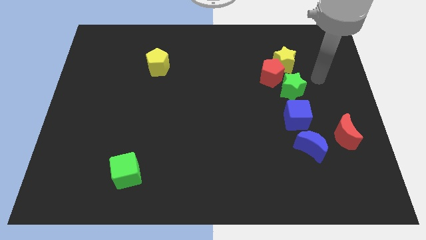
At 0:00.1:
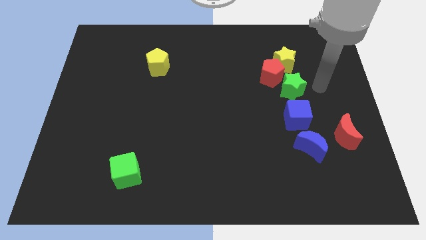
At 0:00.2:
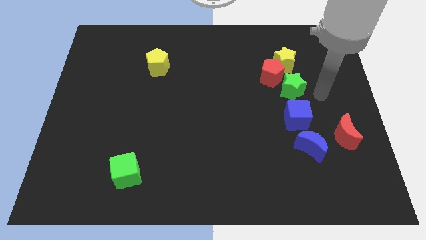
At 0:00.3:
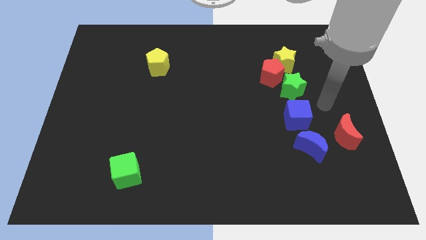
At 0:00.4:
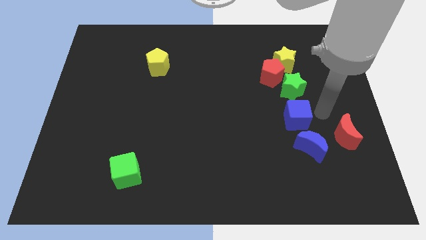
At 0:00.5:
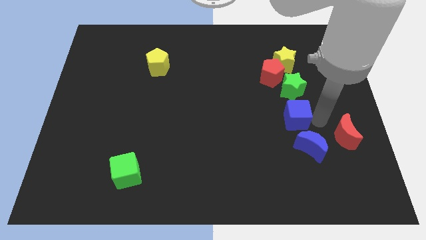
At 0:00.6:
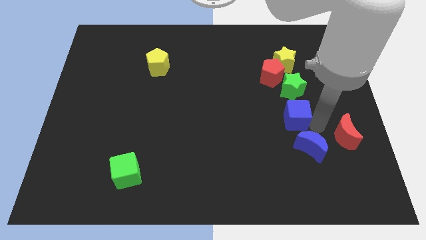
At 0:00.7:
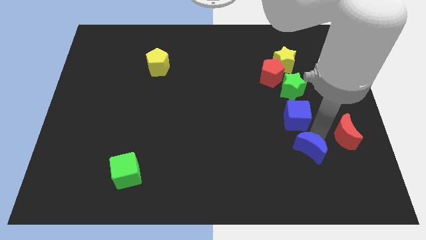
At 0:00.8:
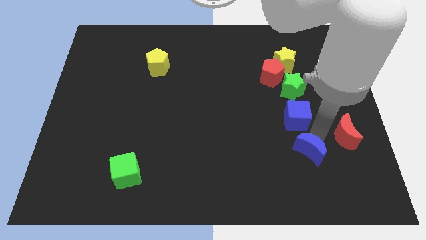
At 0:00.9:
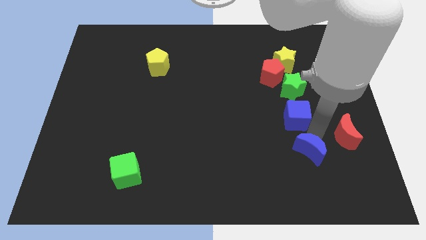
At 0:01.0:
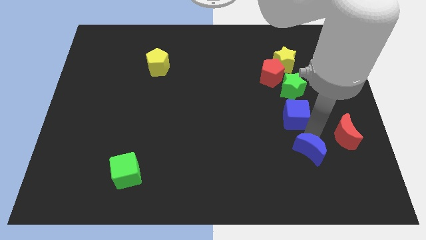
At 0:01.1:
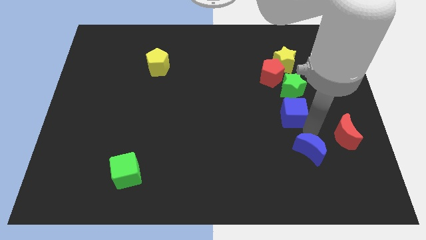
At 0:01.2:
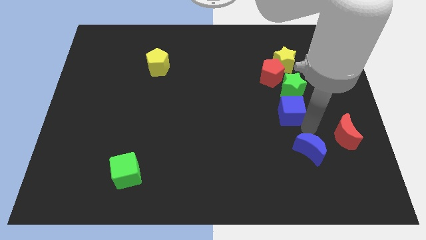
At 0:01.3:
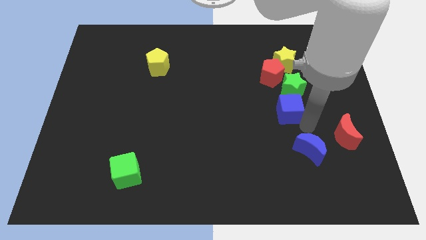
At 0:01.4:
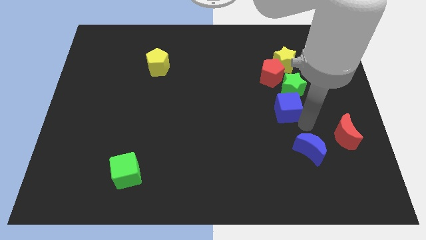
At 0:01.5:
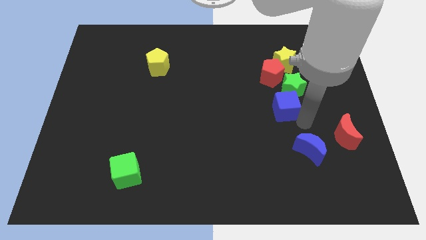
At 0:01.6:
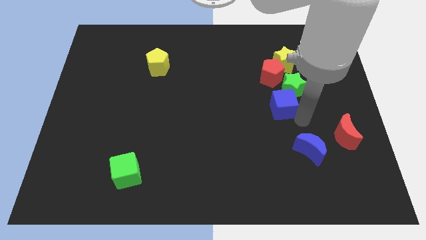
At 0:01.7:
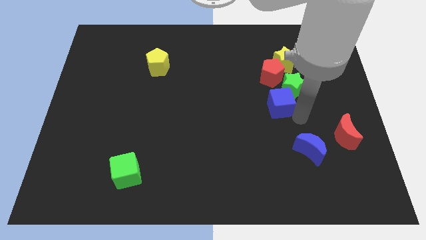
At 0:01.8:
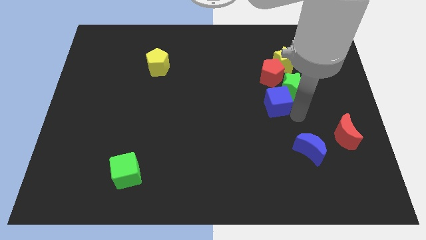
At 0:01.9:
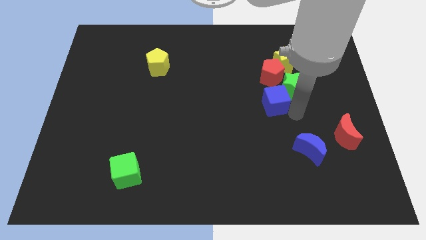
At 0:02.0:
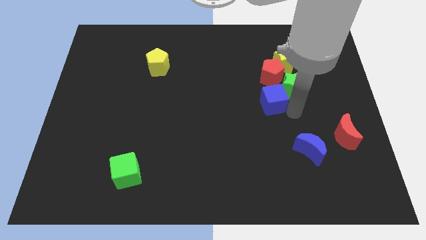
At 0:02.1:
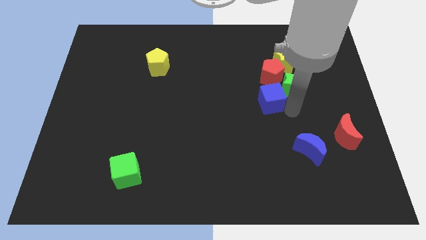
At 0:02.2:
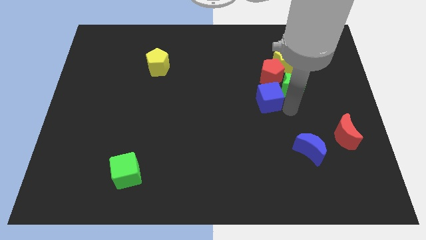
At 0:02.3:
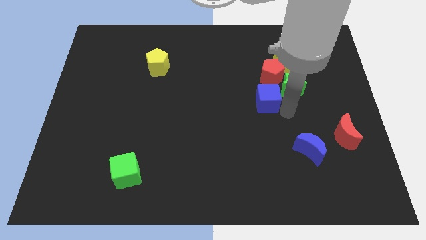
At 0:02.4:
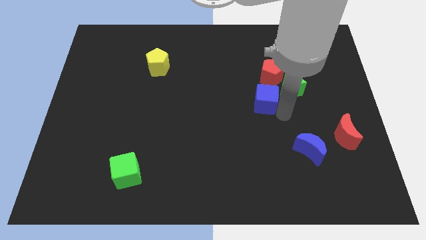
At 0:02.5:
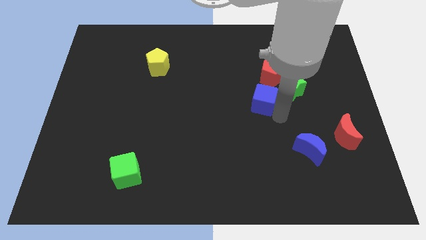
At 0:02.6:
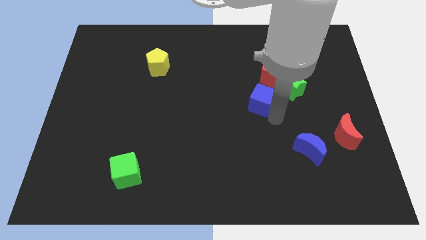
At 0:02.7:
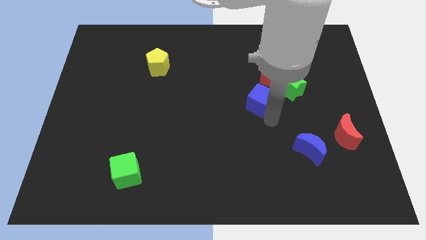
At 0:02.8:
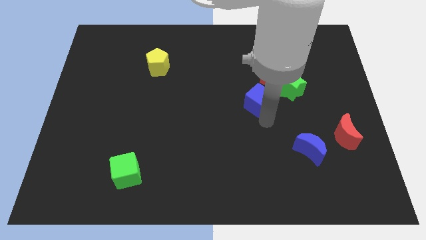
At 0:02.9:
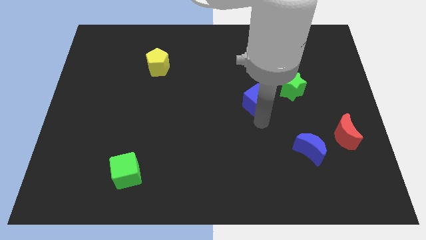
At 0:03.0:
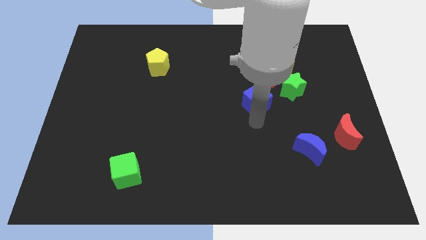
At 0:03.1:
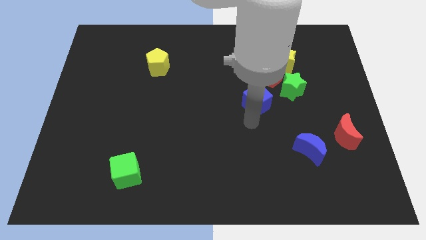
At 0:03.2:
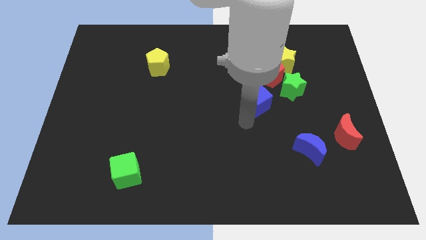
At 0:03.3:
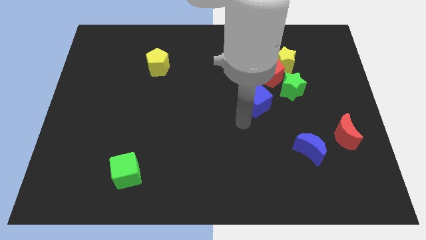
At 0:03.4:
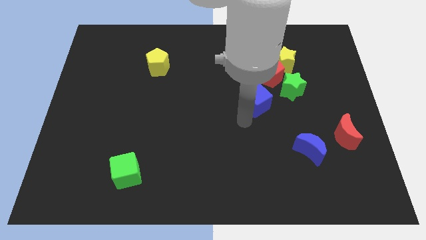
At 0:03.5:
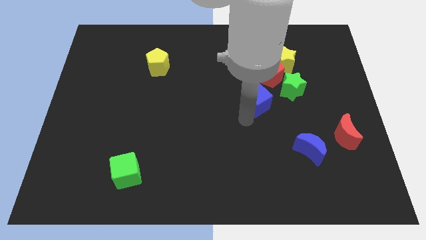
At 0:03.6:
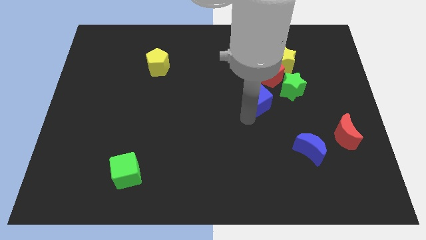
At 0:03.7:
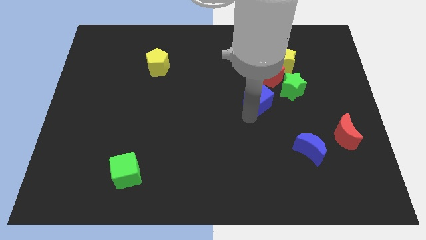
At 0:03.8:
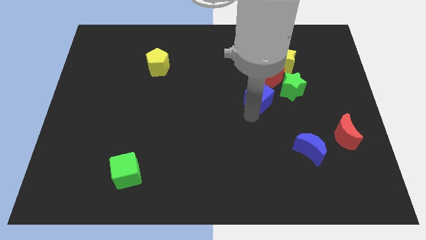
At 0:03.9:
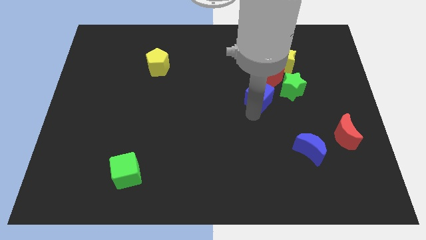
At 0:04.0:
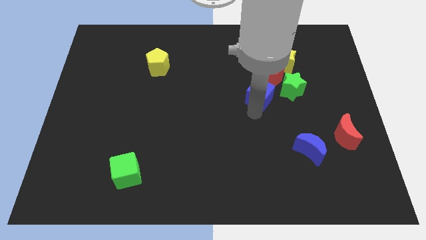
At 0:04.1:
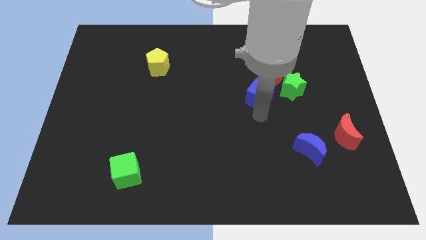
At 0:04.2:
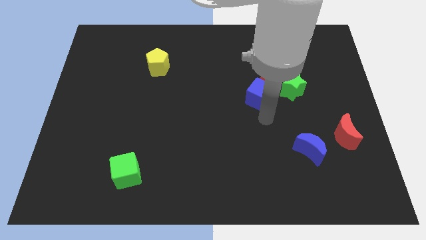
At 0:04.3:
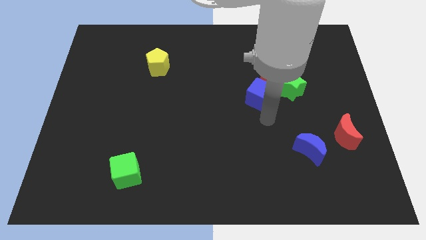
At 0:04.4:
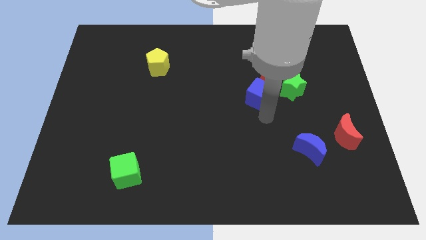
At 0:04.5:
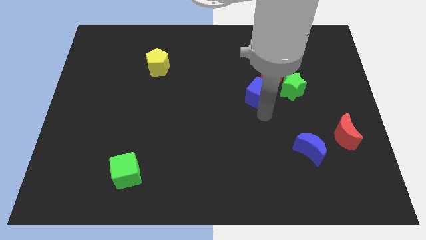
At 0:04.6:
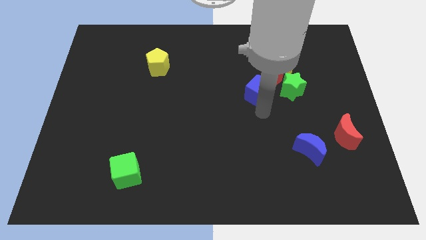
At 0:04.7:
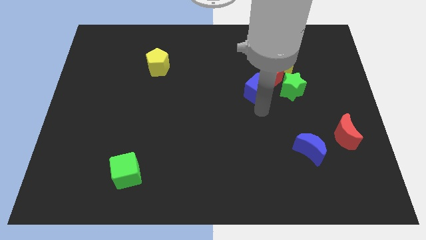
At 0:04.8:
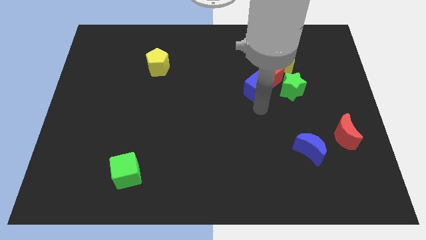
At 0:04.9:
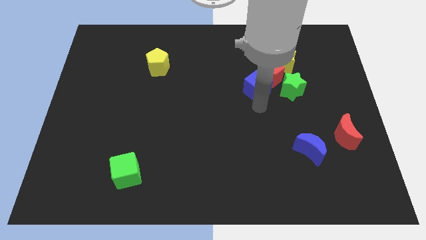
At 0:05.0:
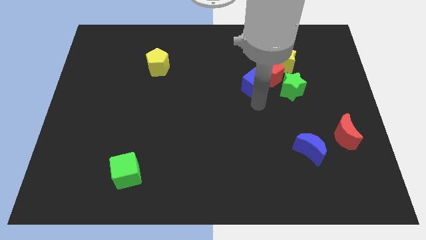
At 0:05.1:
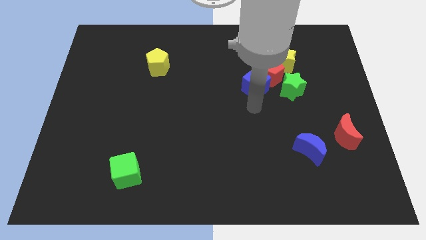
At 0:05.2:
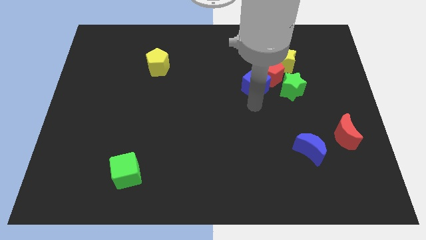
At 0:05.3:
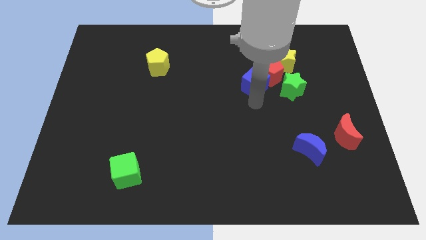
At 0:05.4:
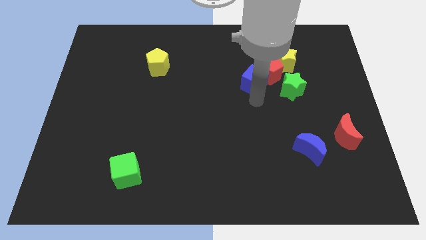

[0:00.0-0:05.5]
move the blue cube diagonally up and to the left of the green star

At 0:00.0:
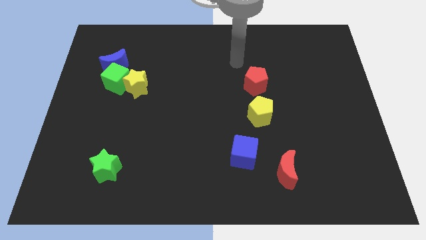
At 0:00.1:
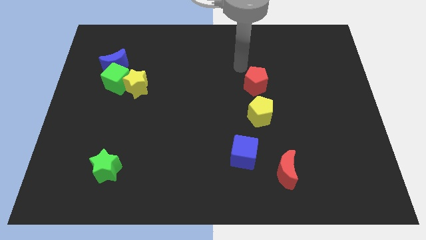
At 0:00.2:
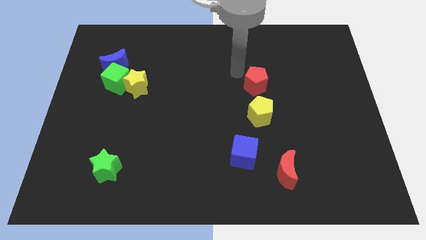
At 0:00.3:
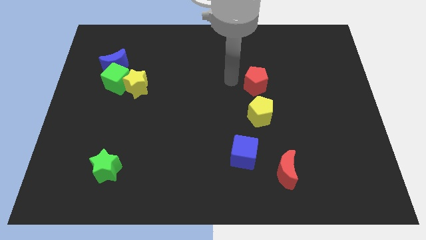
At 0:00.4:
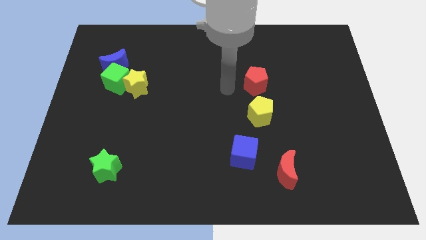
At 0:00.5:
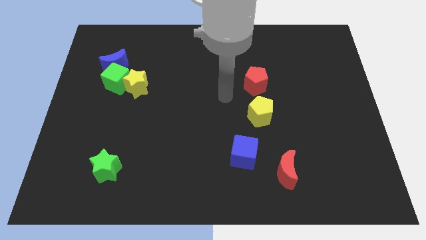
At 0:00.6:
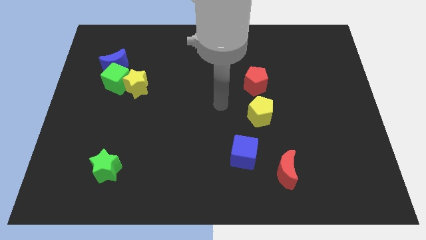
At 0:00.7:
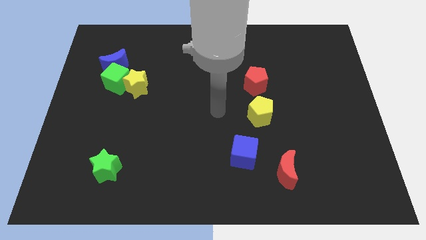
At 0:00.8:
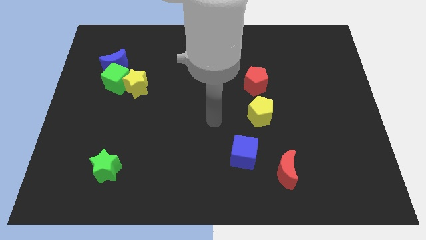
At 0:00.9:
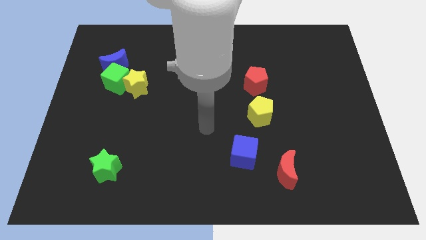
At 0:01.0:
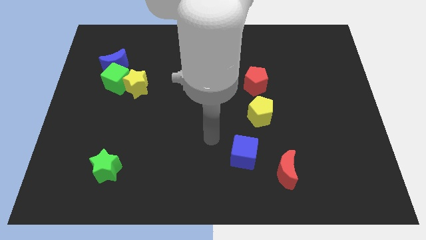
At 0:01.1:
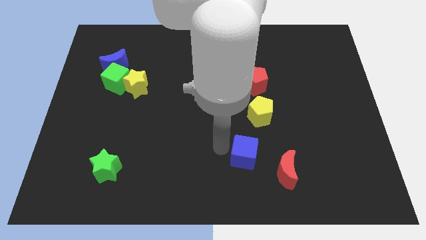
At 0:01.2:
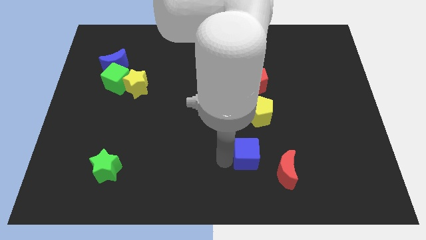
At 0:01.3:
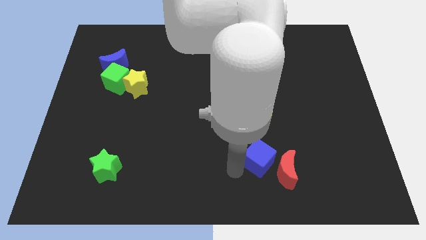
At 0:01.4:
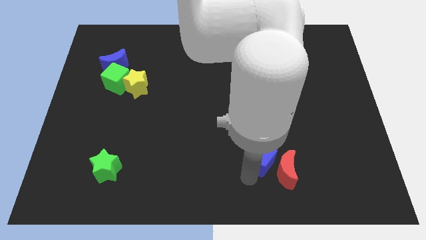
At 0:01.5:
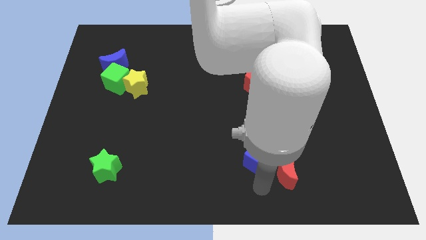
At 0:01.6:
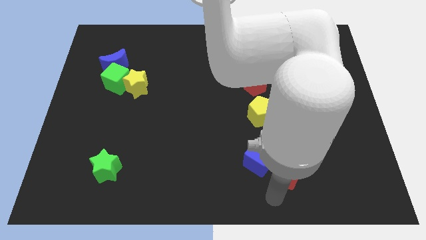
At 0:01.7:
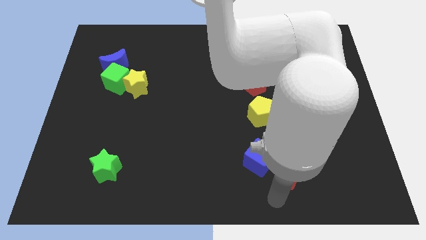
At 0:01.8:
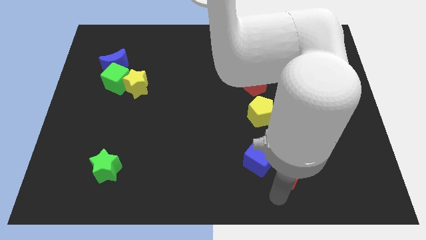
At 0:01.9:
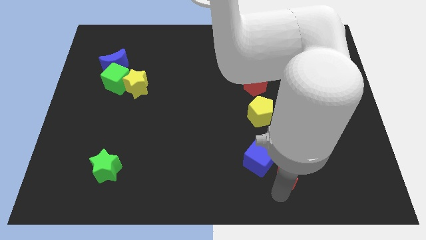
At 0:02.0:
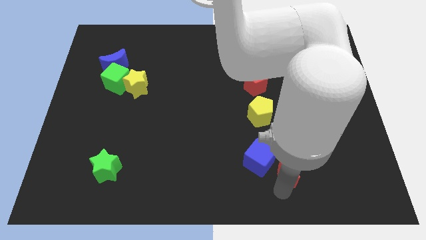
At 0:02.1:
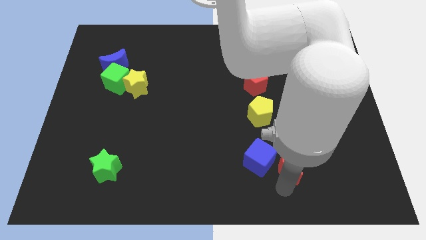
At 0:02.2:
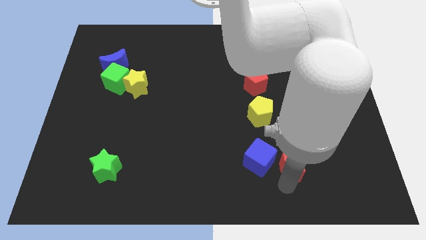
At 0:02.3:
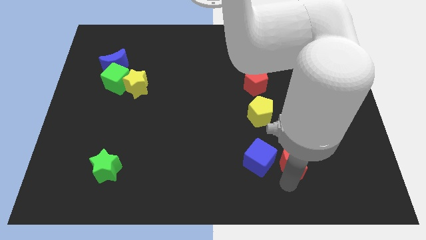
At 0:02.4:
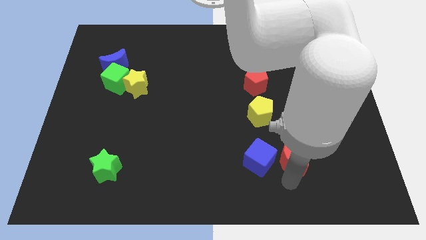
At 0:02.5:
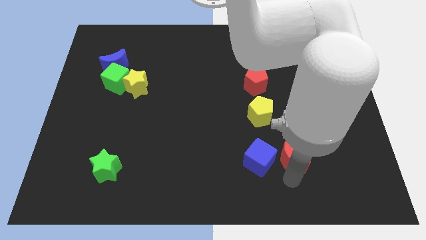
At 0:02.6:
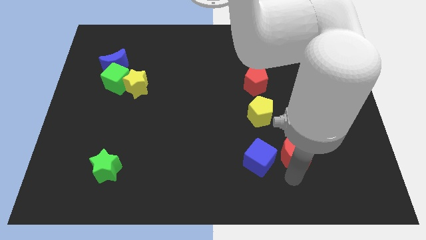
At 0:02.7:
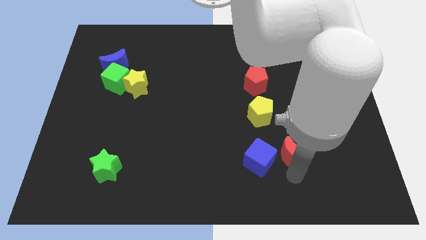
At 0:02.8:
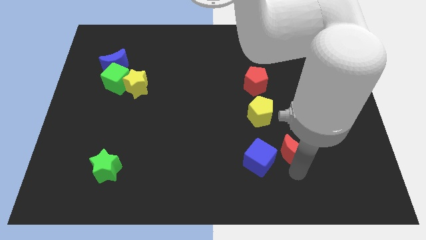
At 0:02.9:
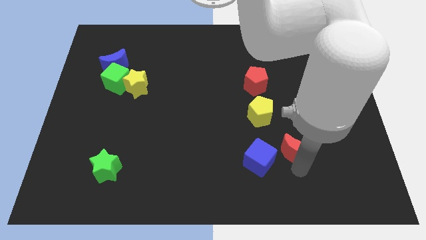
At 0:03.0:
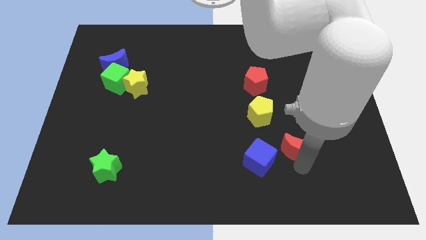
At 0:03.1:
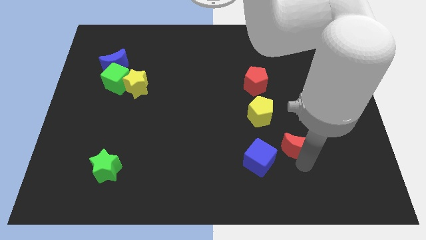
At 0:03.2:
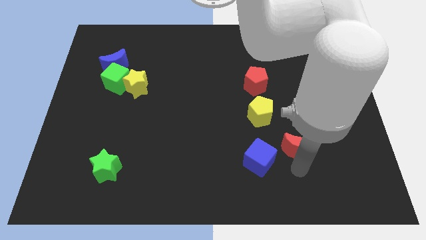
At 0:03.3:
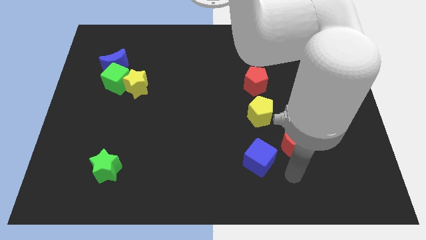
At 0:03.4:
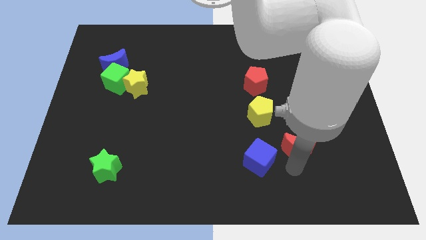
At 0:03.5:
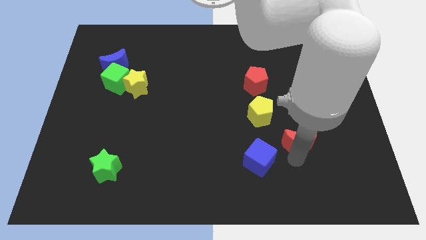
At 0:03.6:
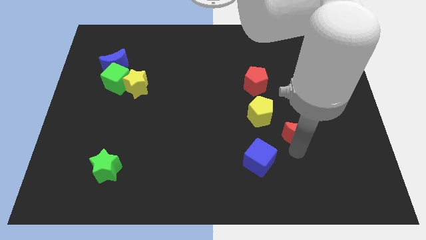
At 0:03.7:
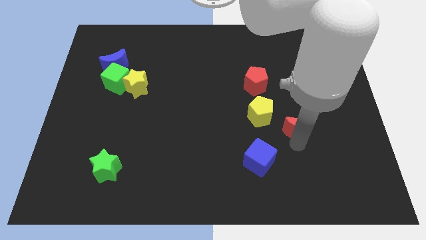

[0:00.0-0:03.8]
put the red moon to the right of the yellow pentagon
